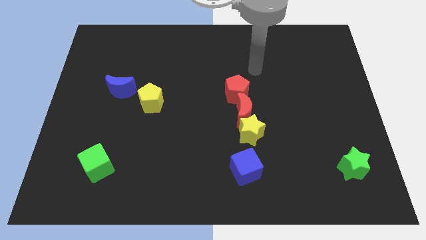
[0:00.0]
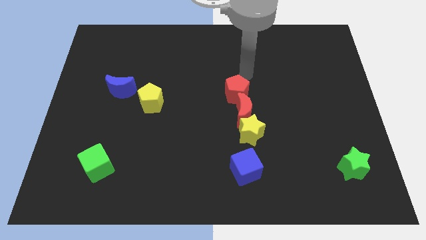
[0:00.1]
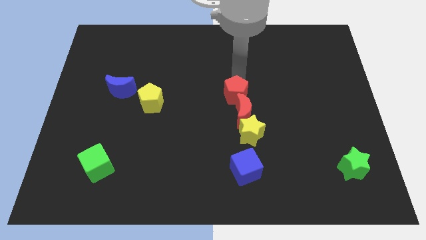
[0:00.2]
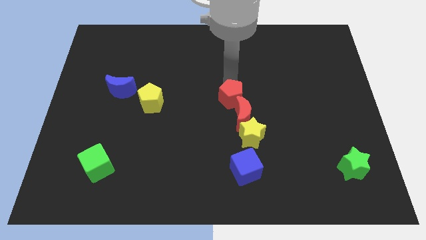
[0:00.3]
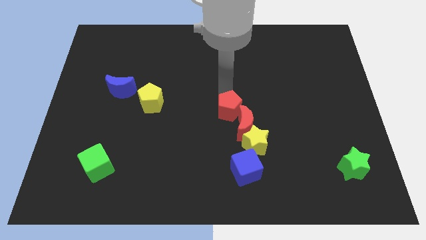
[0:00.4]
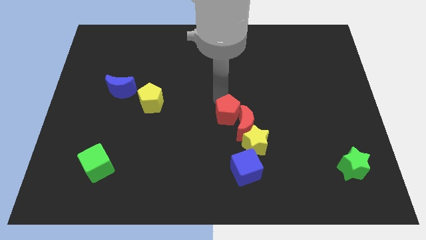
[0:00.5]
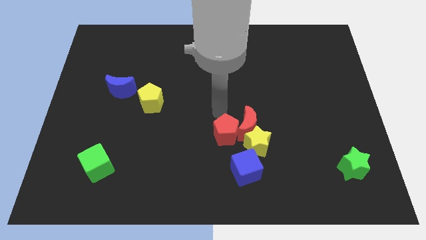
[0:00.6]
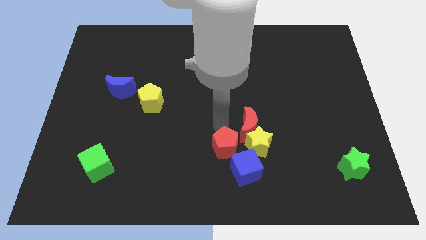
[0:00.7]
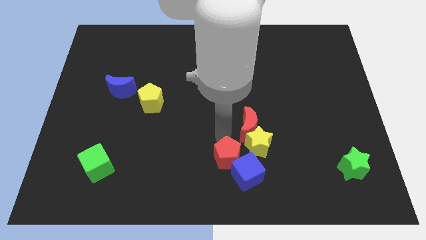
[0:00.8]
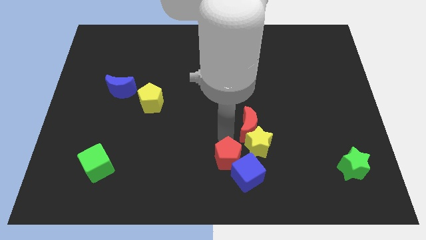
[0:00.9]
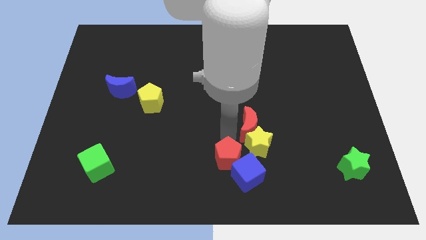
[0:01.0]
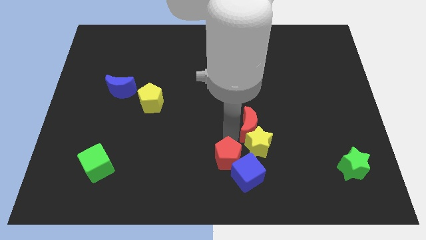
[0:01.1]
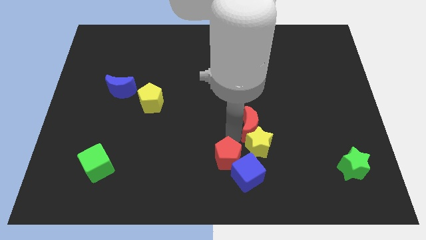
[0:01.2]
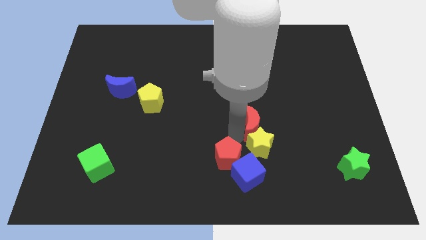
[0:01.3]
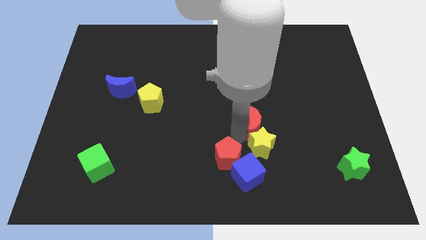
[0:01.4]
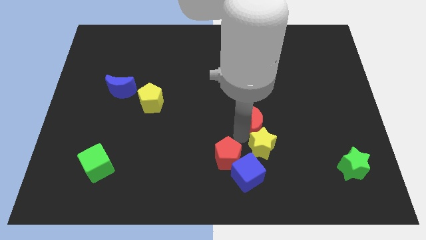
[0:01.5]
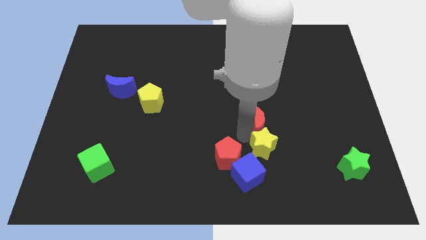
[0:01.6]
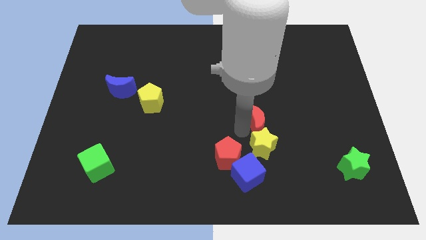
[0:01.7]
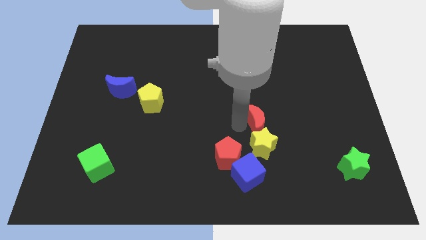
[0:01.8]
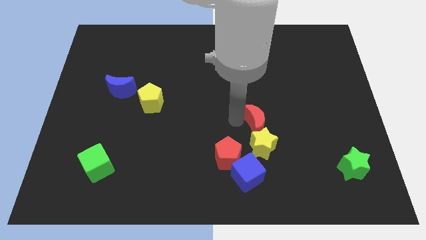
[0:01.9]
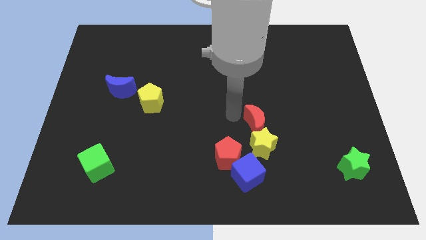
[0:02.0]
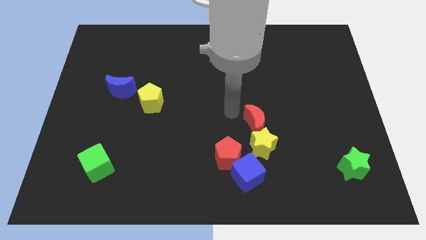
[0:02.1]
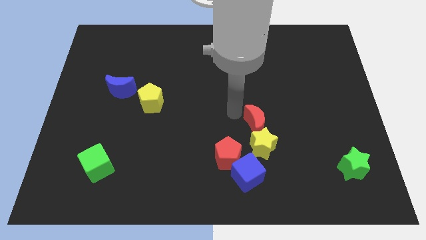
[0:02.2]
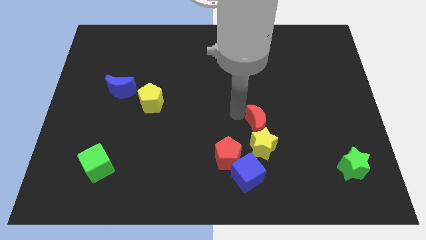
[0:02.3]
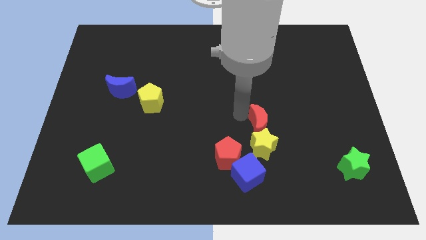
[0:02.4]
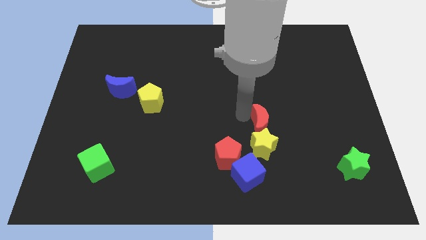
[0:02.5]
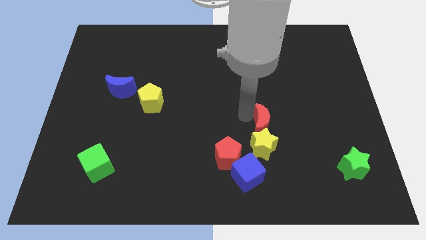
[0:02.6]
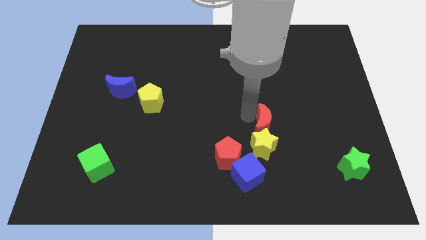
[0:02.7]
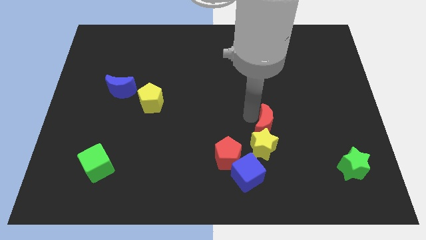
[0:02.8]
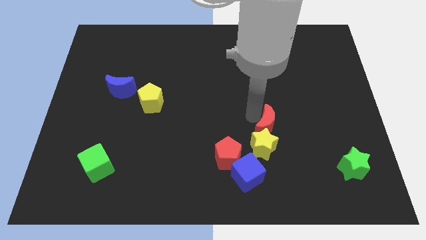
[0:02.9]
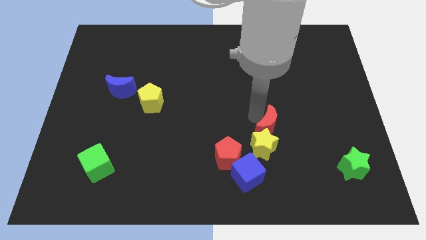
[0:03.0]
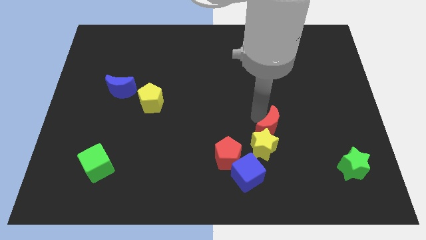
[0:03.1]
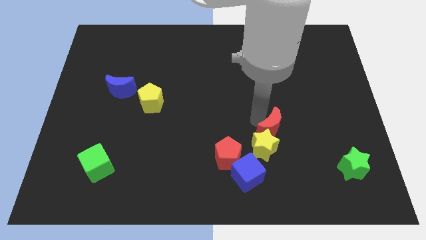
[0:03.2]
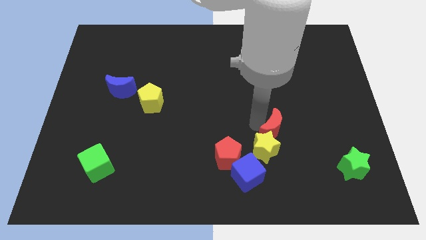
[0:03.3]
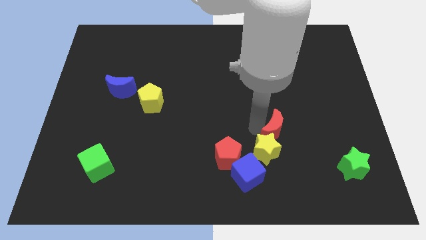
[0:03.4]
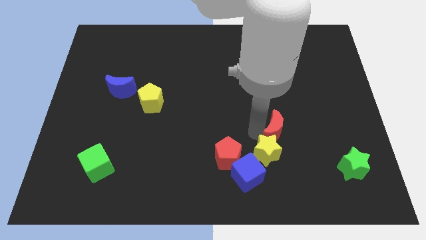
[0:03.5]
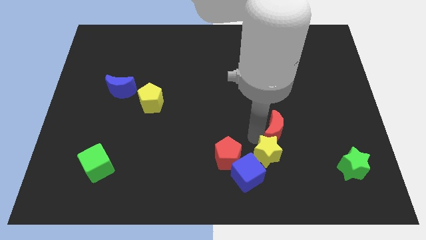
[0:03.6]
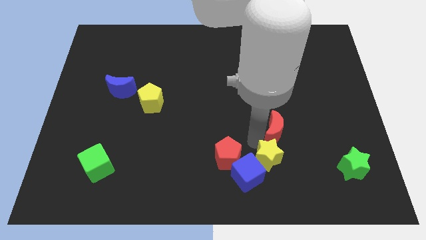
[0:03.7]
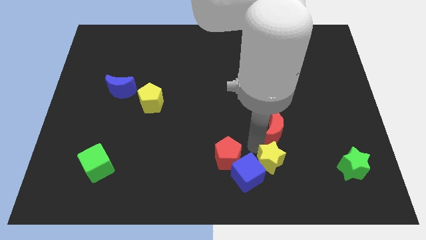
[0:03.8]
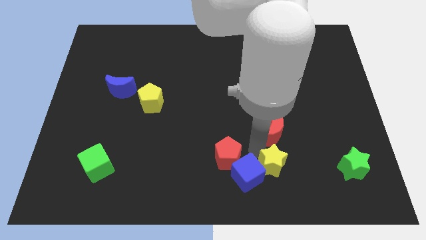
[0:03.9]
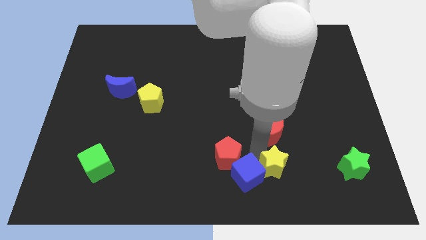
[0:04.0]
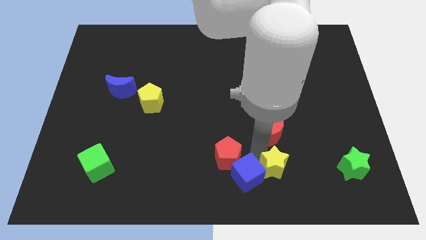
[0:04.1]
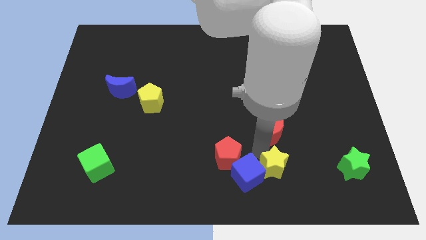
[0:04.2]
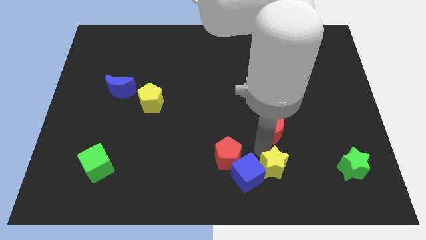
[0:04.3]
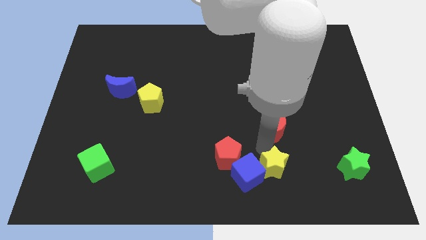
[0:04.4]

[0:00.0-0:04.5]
separate the red moon from the yellow star and red pentagon

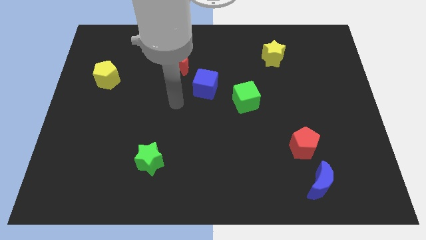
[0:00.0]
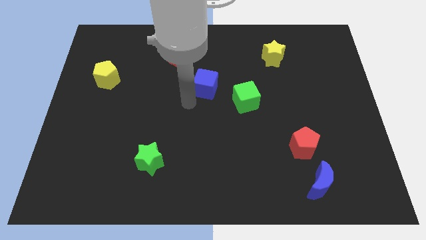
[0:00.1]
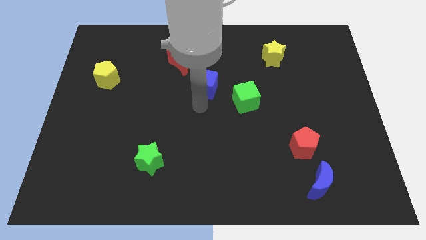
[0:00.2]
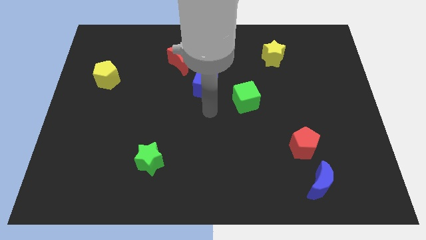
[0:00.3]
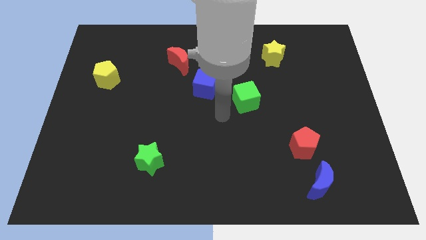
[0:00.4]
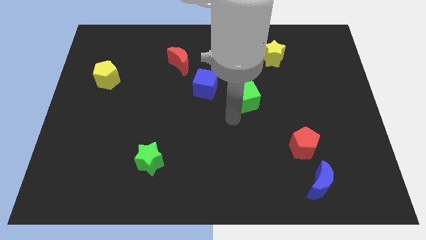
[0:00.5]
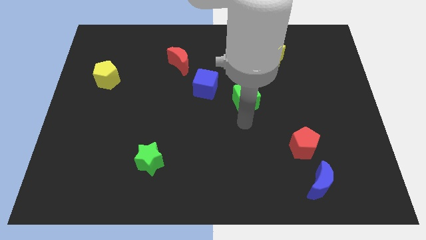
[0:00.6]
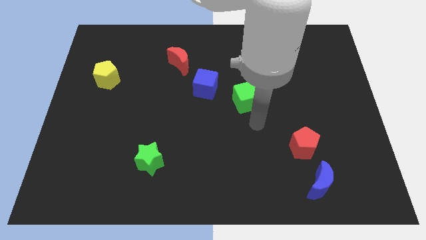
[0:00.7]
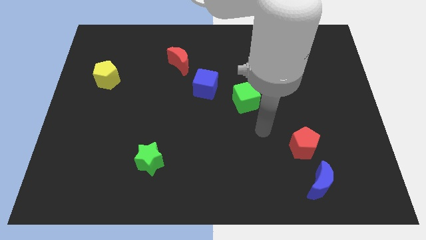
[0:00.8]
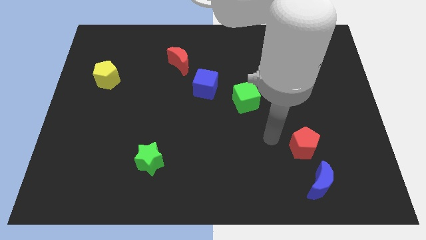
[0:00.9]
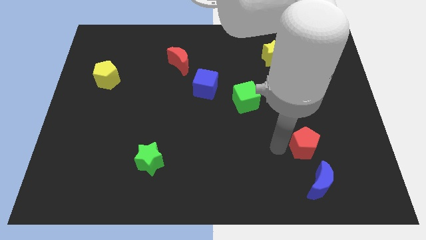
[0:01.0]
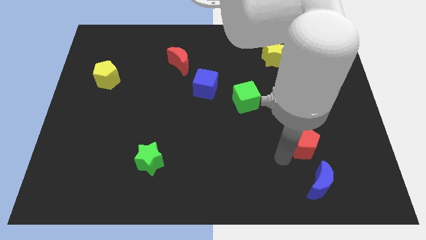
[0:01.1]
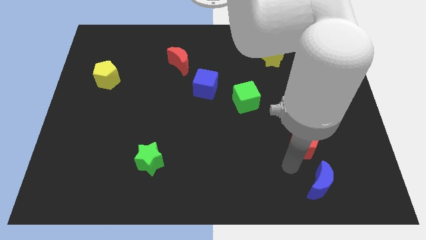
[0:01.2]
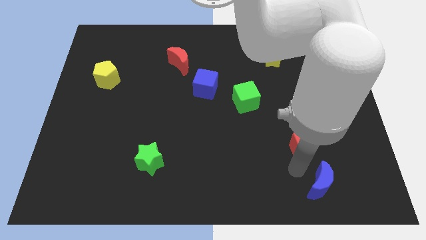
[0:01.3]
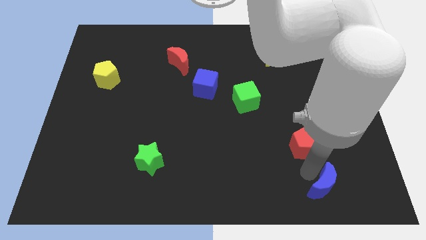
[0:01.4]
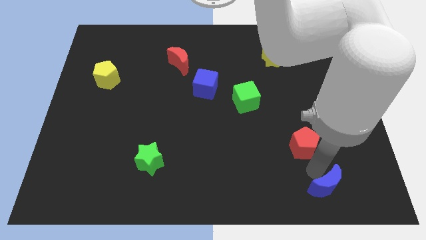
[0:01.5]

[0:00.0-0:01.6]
pull the red pentagon apart from the blue moon

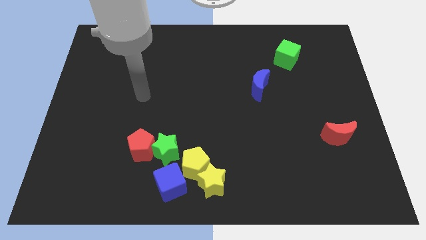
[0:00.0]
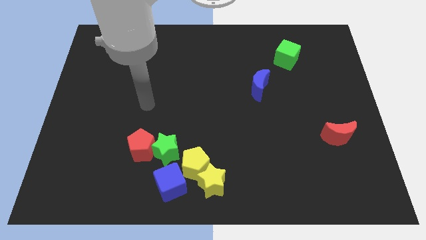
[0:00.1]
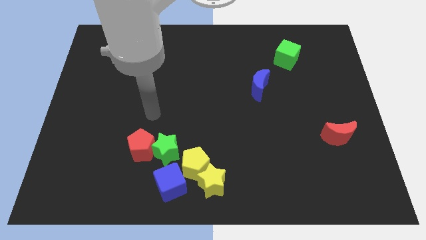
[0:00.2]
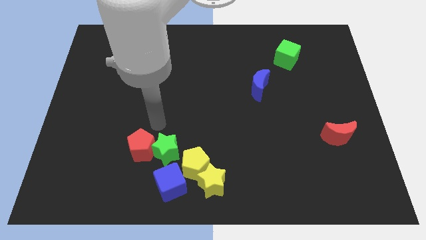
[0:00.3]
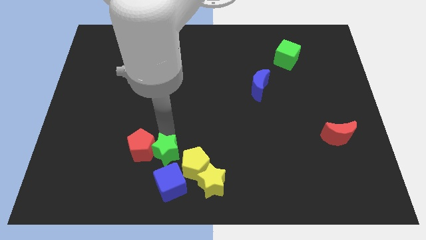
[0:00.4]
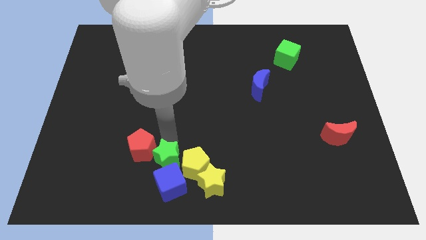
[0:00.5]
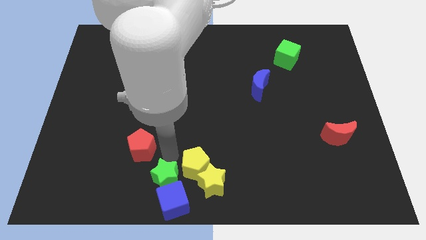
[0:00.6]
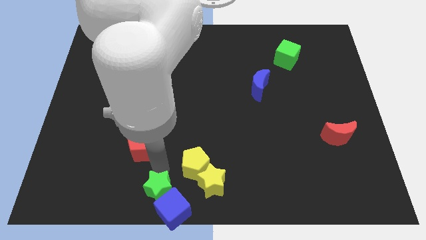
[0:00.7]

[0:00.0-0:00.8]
move the red pentagon away from the green star

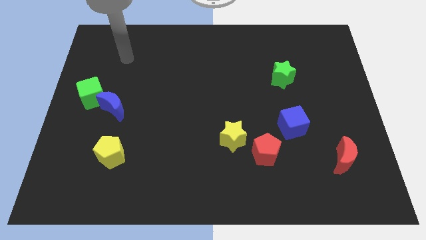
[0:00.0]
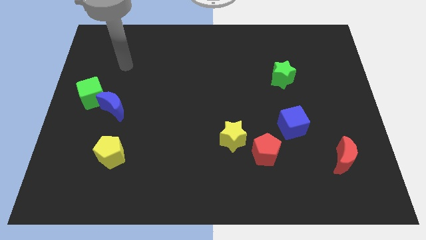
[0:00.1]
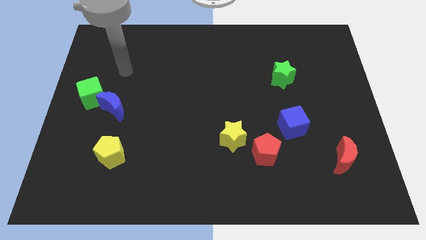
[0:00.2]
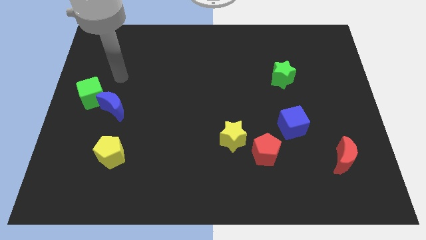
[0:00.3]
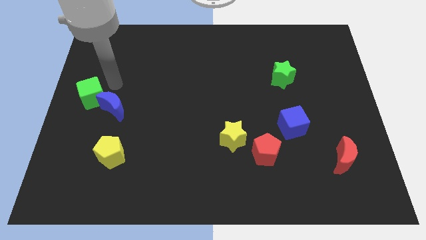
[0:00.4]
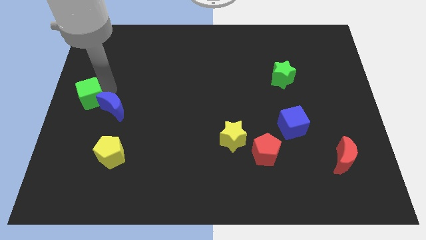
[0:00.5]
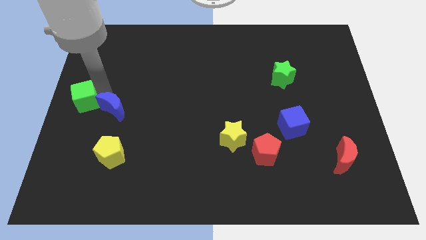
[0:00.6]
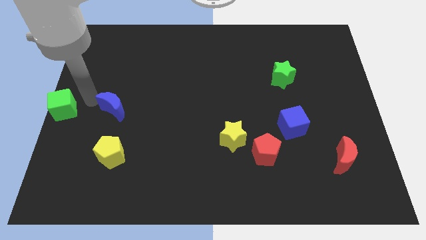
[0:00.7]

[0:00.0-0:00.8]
separate the blue moon from the green cube

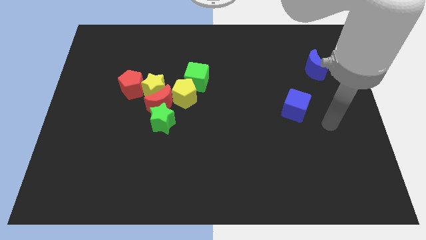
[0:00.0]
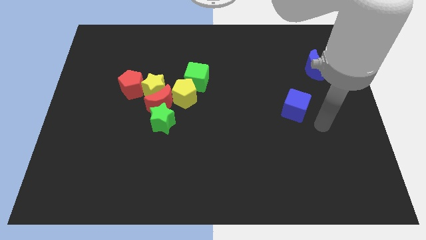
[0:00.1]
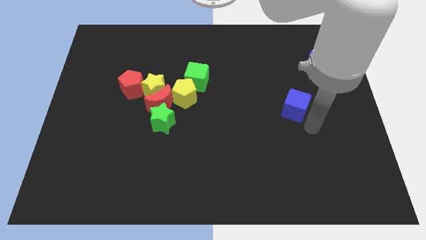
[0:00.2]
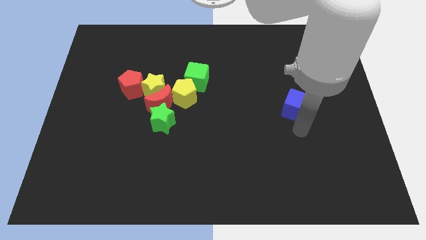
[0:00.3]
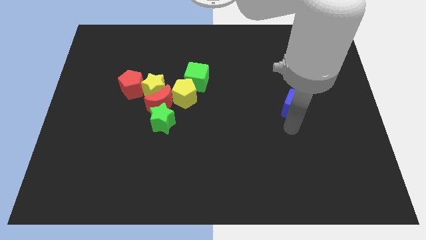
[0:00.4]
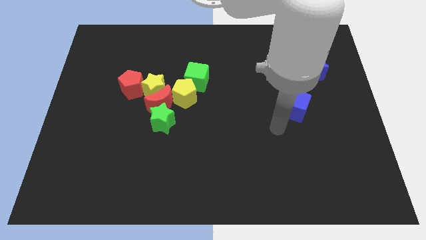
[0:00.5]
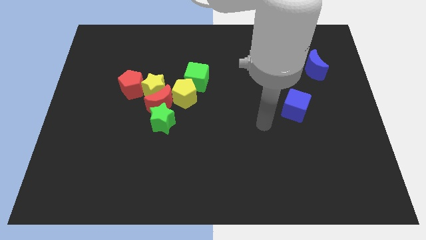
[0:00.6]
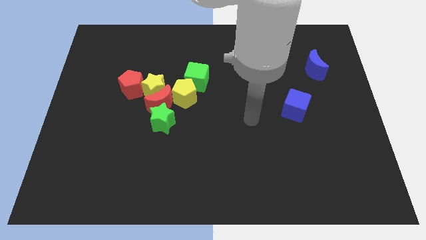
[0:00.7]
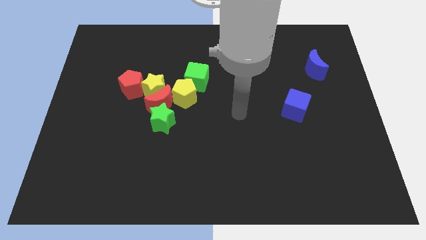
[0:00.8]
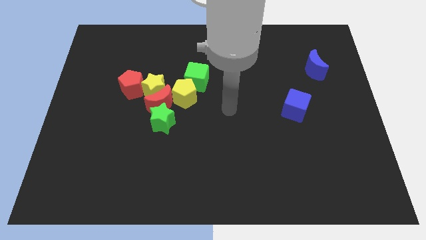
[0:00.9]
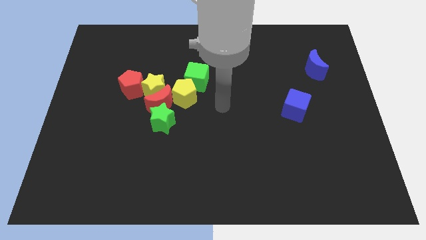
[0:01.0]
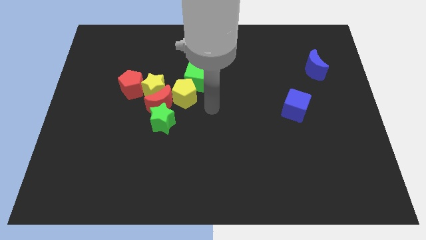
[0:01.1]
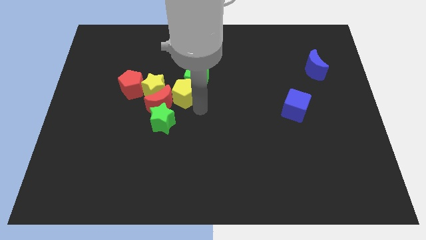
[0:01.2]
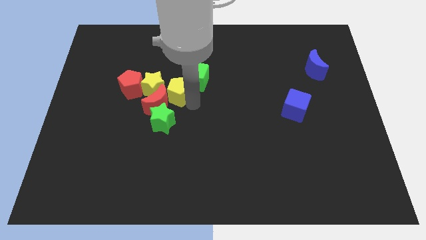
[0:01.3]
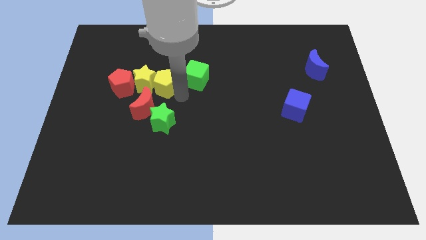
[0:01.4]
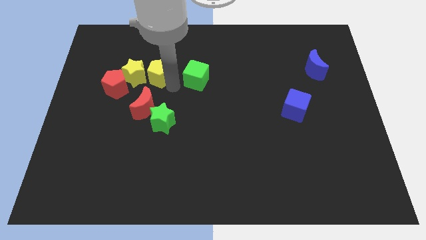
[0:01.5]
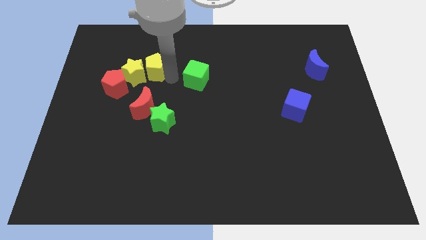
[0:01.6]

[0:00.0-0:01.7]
move the green cube away from the yellow pentagon
